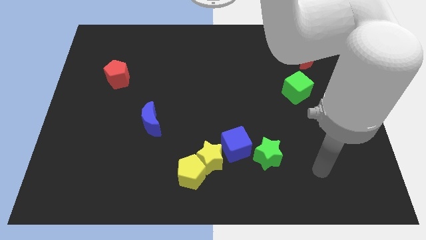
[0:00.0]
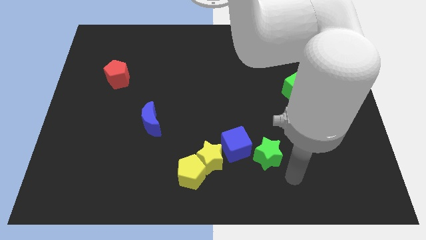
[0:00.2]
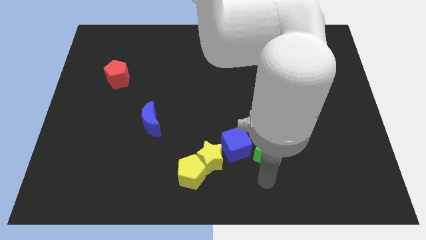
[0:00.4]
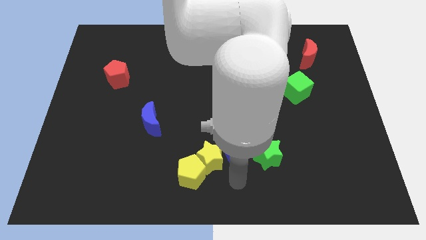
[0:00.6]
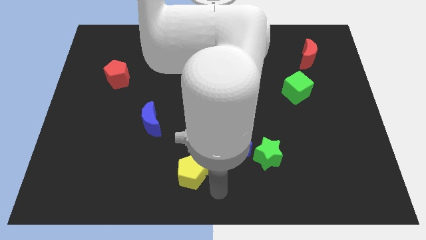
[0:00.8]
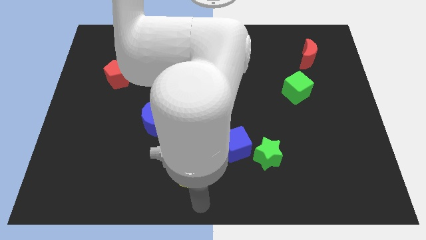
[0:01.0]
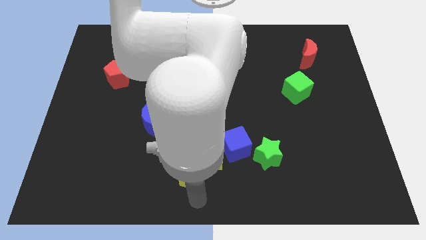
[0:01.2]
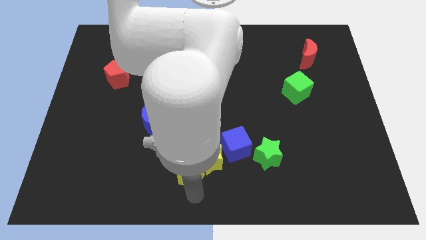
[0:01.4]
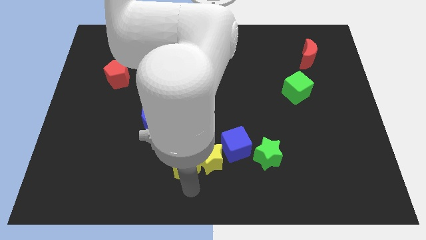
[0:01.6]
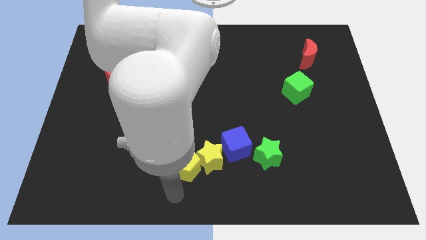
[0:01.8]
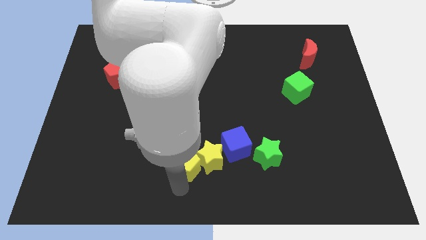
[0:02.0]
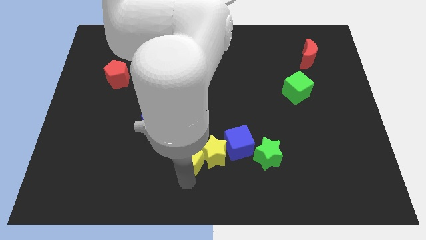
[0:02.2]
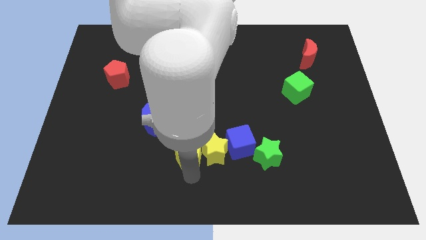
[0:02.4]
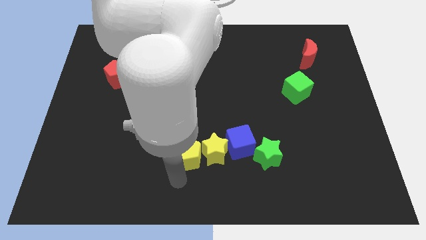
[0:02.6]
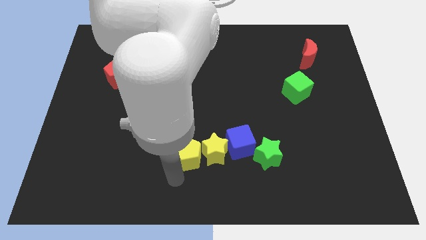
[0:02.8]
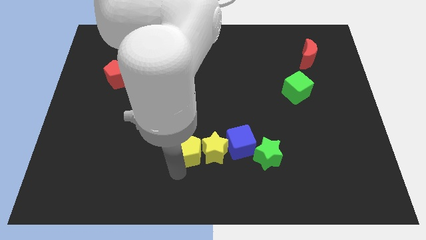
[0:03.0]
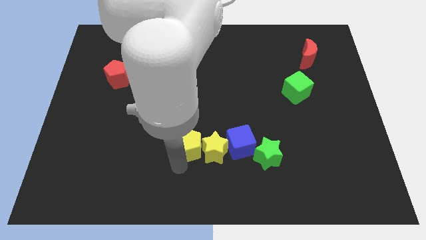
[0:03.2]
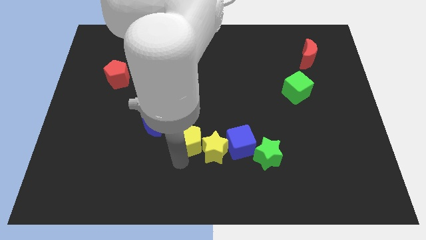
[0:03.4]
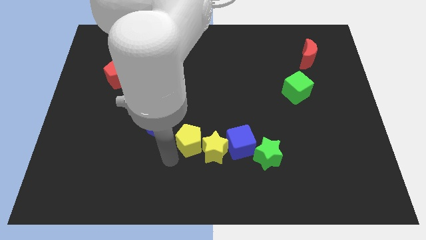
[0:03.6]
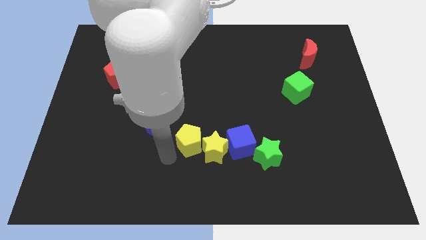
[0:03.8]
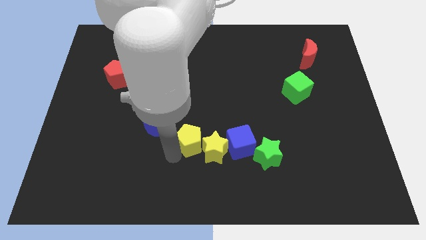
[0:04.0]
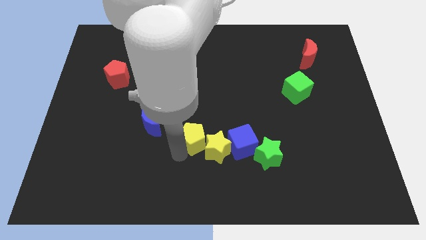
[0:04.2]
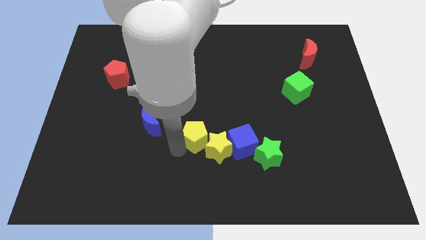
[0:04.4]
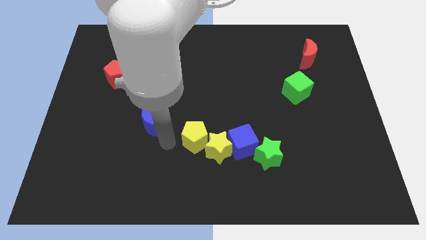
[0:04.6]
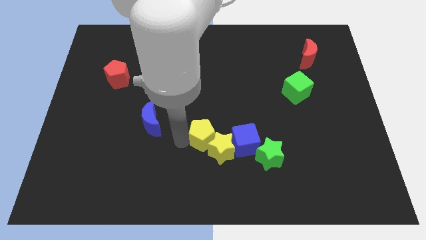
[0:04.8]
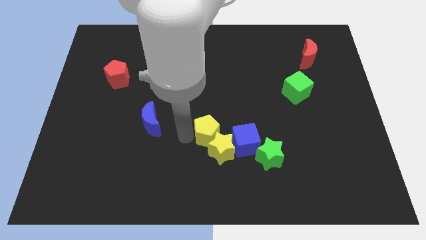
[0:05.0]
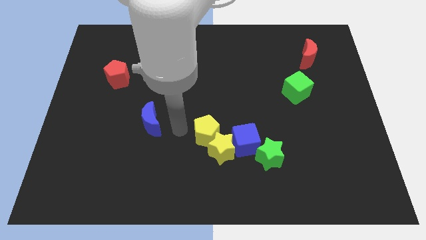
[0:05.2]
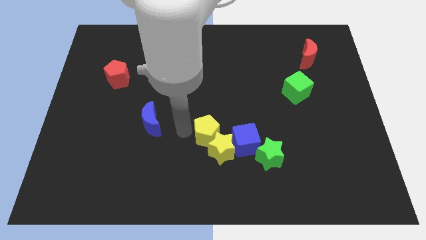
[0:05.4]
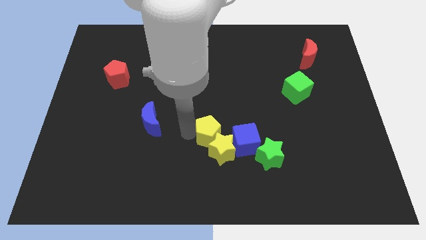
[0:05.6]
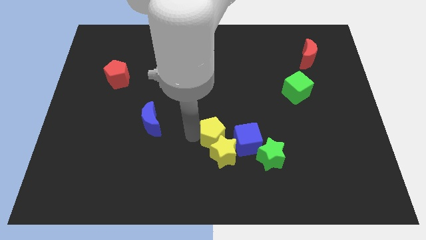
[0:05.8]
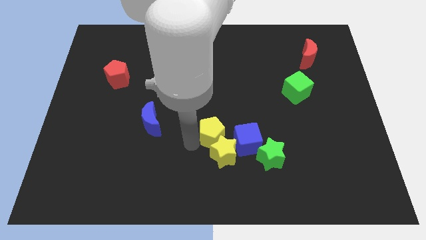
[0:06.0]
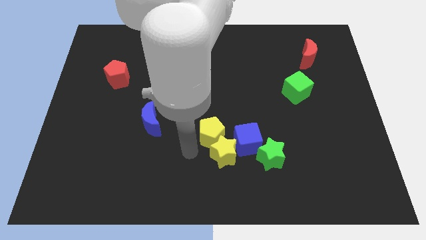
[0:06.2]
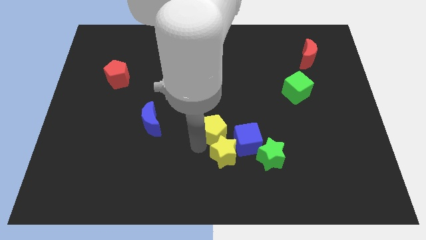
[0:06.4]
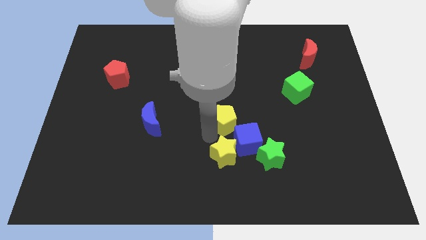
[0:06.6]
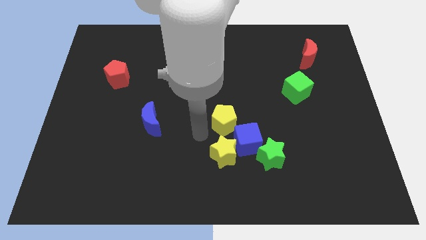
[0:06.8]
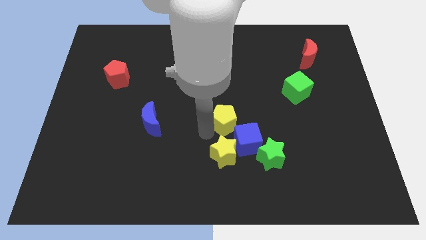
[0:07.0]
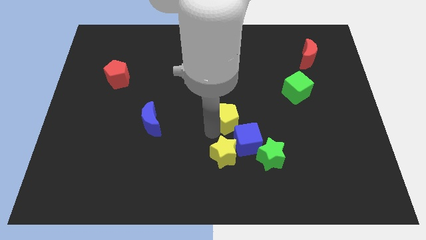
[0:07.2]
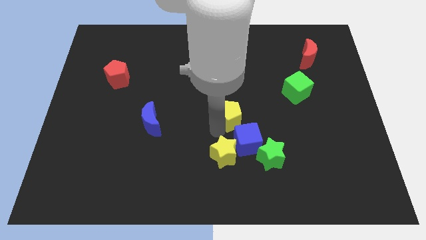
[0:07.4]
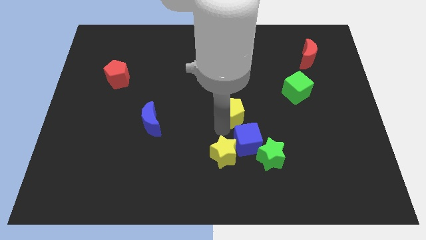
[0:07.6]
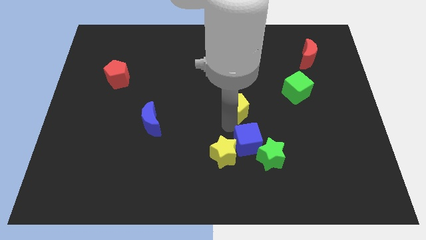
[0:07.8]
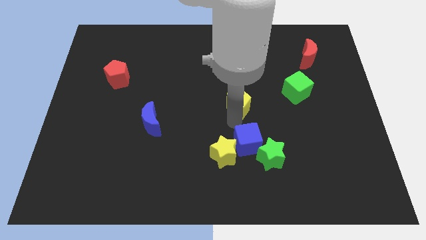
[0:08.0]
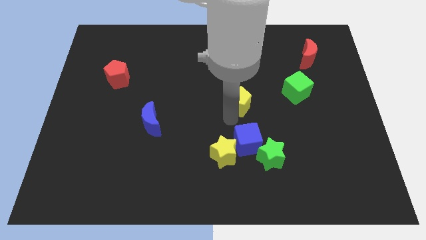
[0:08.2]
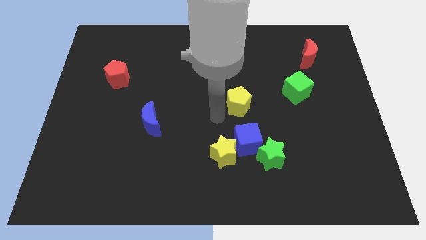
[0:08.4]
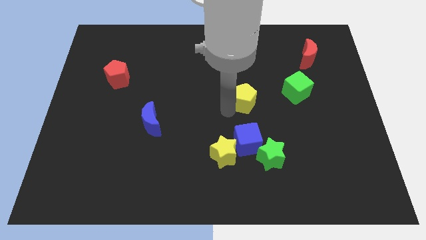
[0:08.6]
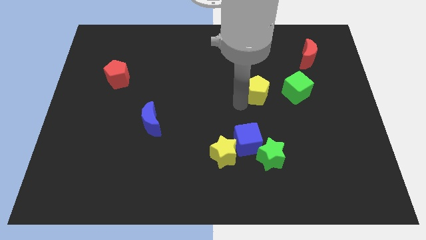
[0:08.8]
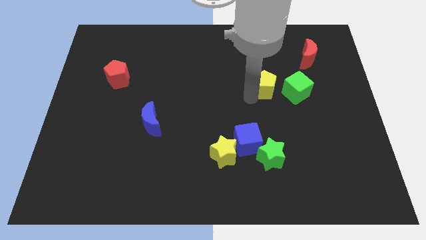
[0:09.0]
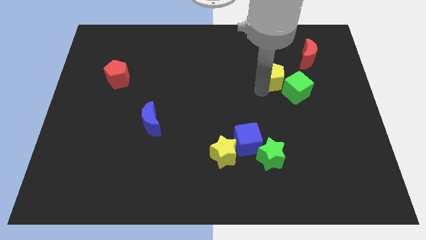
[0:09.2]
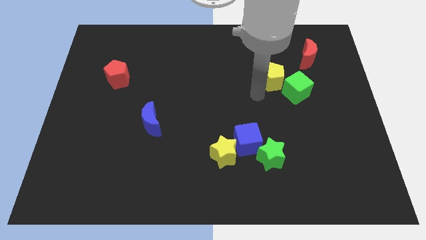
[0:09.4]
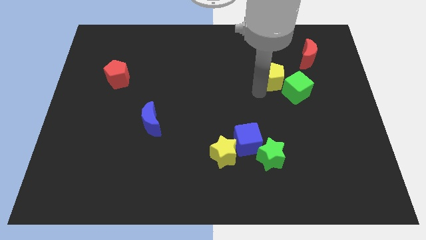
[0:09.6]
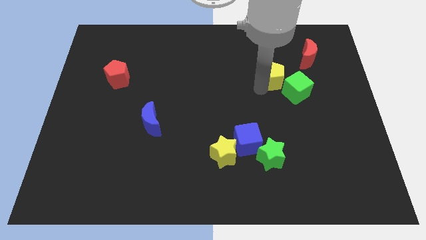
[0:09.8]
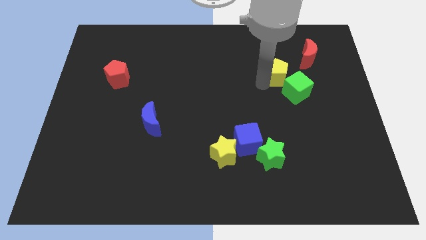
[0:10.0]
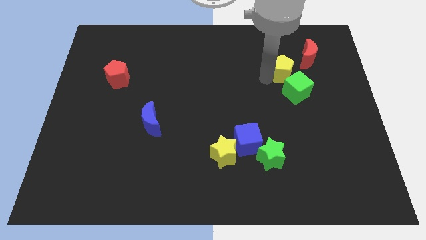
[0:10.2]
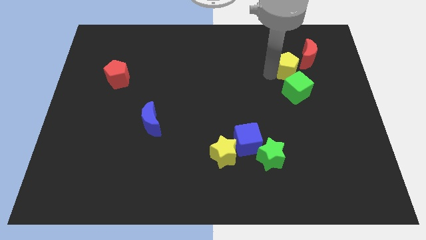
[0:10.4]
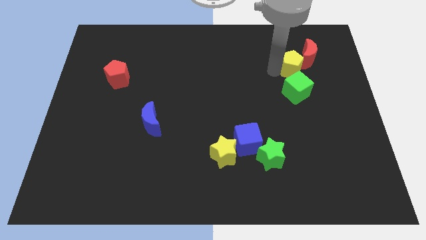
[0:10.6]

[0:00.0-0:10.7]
put the yellow pentagon close to the red moon

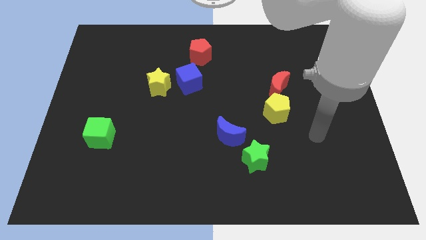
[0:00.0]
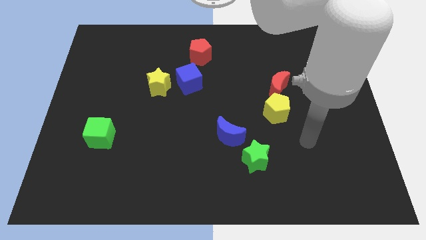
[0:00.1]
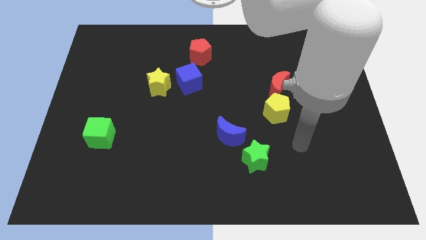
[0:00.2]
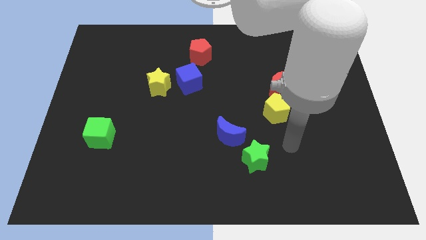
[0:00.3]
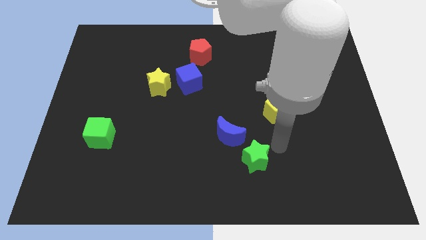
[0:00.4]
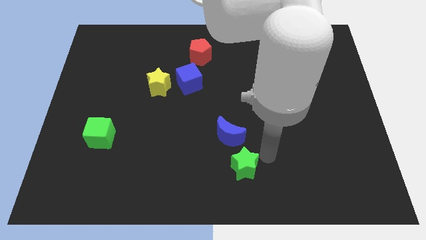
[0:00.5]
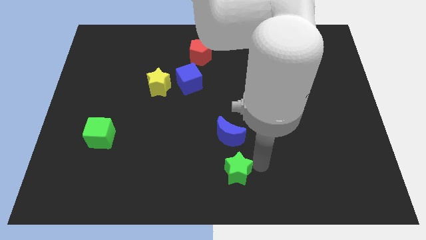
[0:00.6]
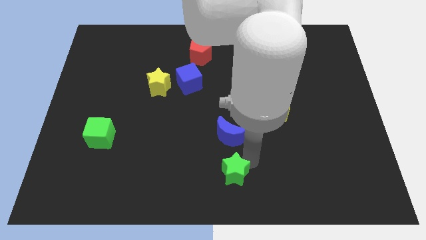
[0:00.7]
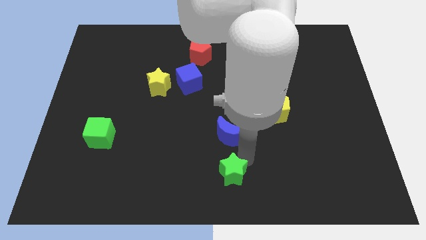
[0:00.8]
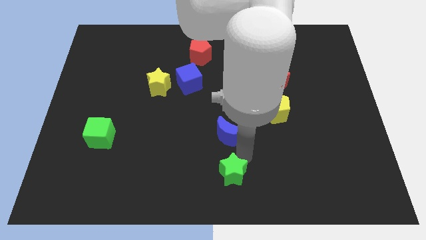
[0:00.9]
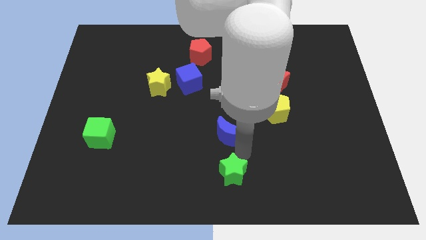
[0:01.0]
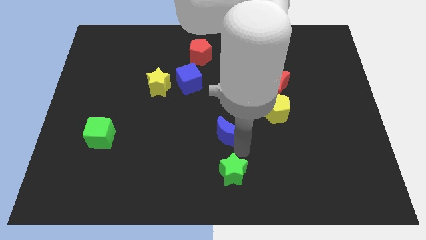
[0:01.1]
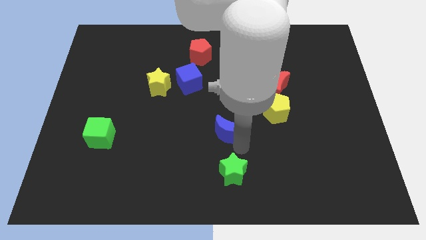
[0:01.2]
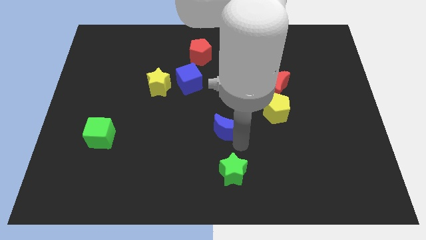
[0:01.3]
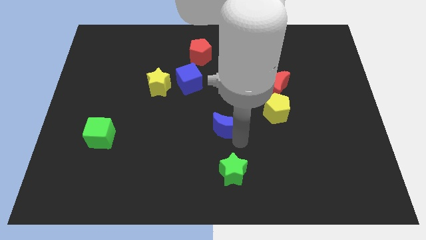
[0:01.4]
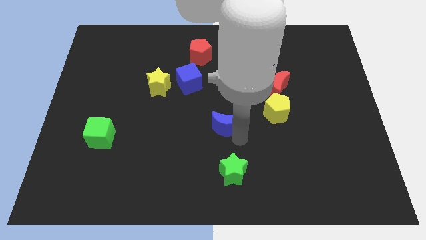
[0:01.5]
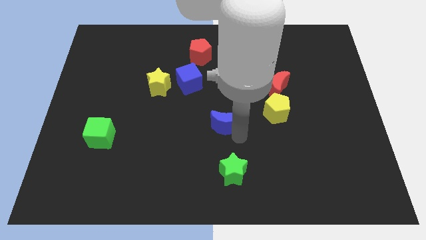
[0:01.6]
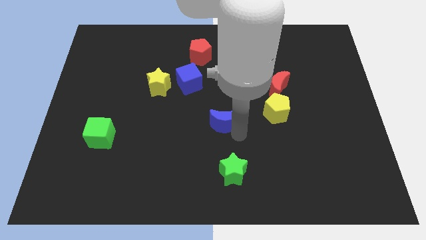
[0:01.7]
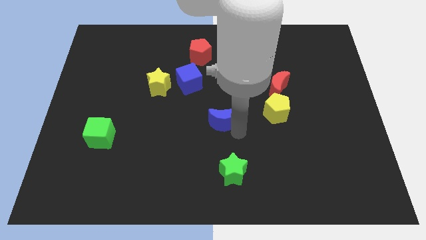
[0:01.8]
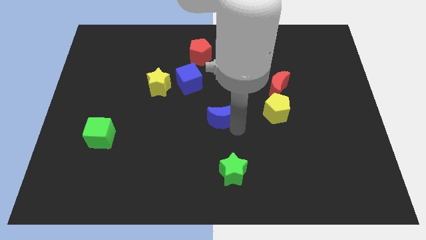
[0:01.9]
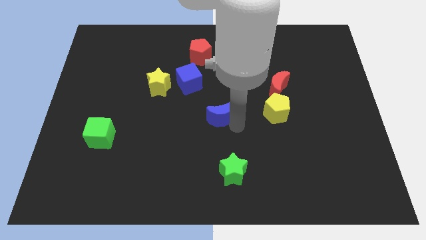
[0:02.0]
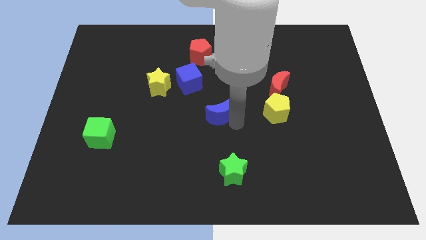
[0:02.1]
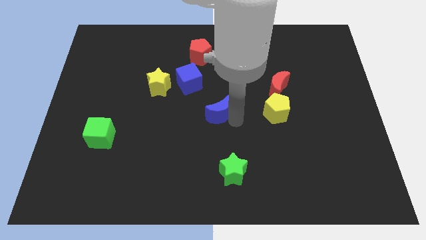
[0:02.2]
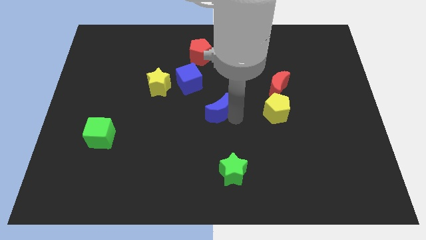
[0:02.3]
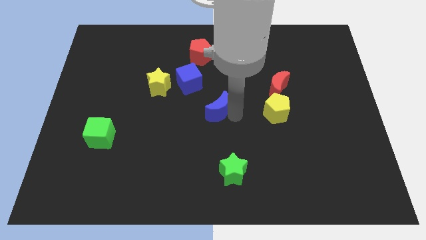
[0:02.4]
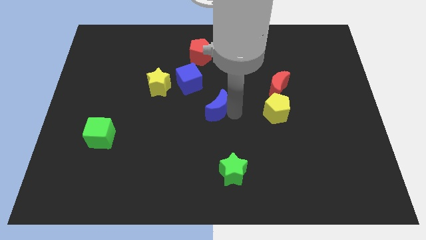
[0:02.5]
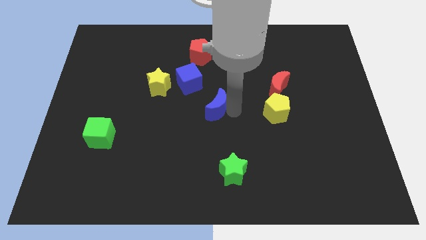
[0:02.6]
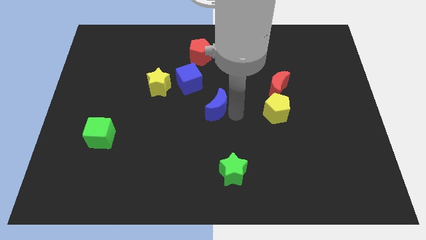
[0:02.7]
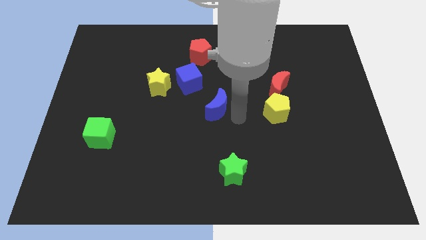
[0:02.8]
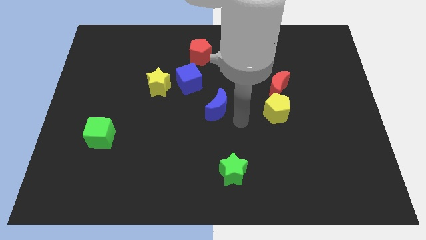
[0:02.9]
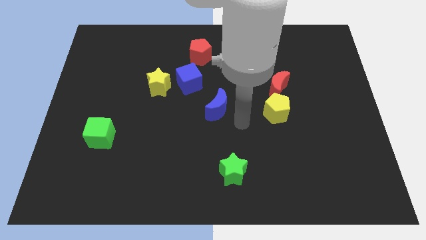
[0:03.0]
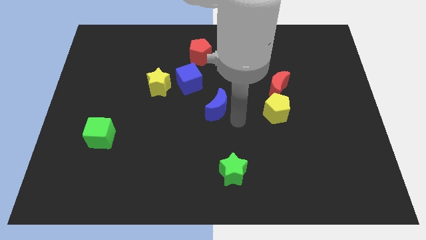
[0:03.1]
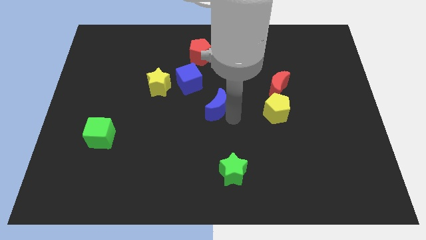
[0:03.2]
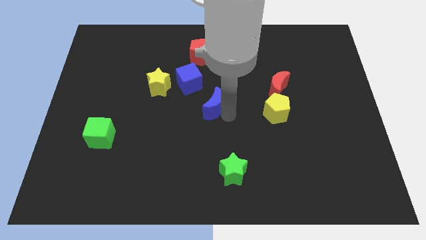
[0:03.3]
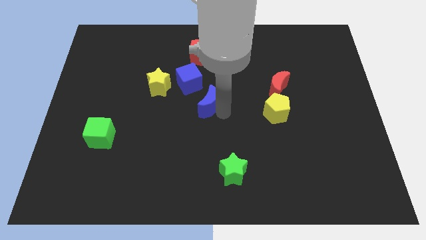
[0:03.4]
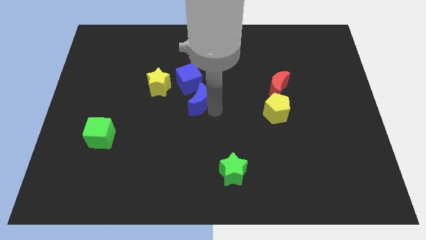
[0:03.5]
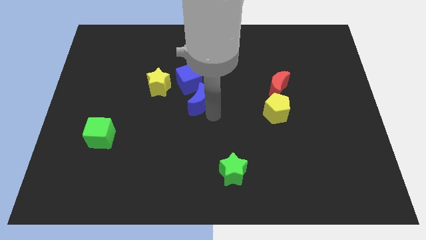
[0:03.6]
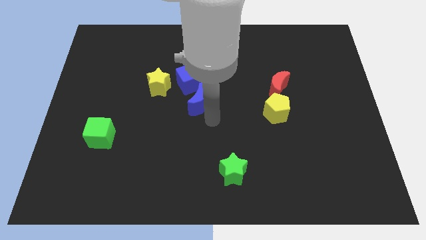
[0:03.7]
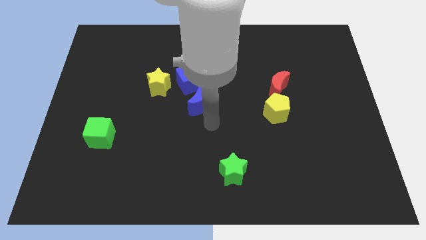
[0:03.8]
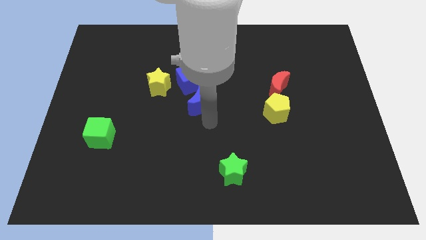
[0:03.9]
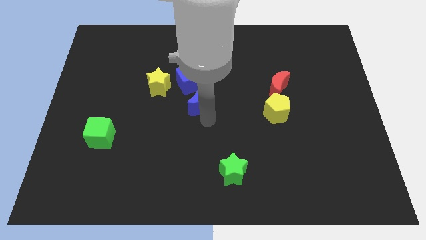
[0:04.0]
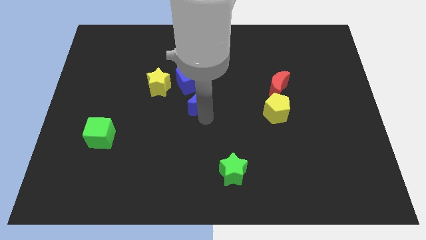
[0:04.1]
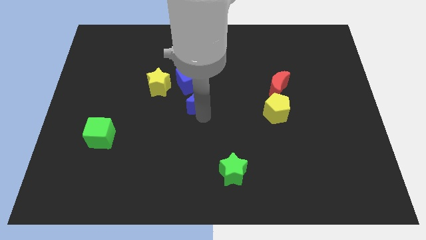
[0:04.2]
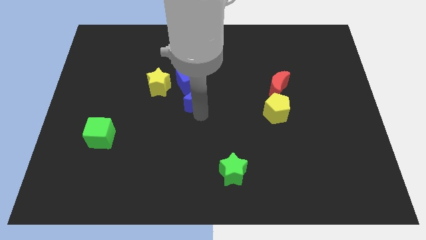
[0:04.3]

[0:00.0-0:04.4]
put the blue moon to the blue cube
